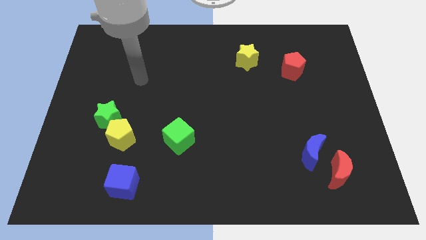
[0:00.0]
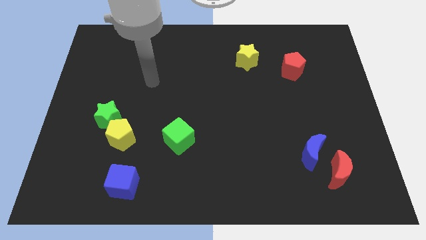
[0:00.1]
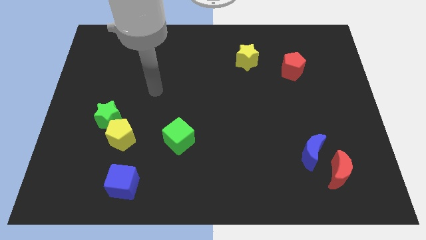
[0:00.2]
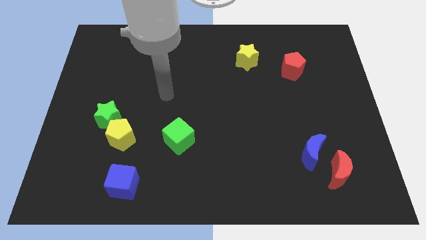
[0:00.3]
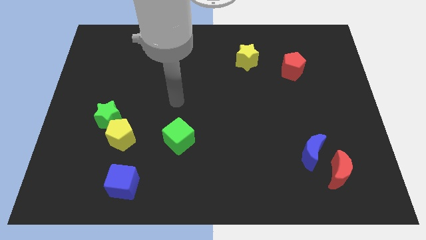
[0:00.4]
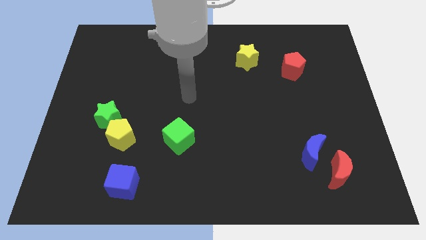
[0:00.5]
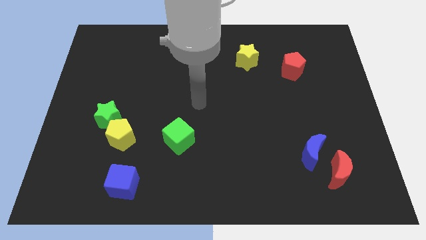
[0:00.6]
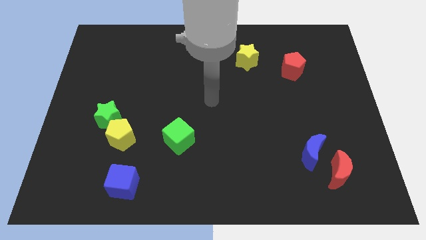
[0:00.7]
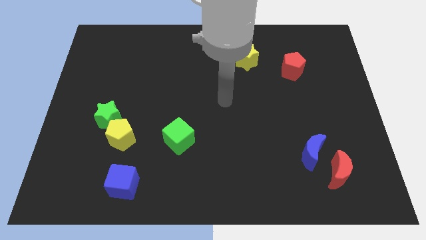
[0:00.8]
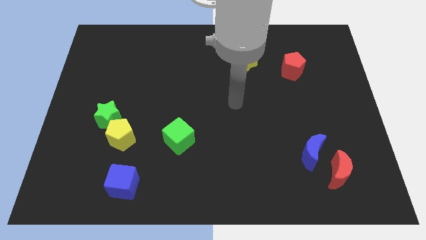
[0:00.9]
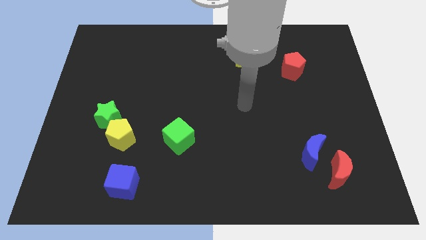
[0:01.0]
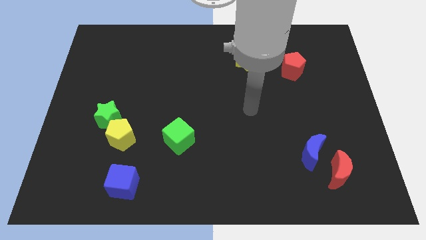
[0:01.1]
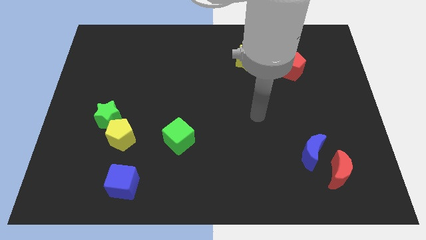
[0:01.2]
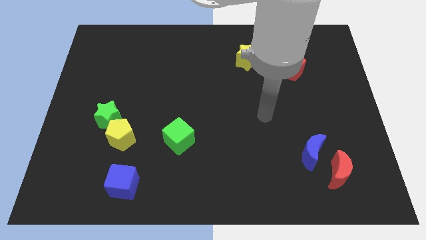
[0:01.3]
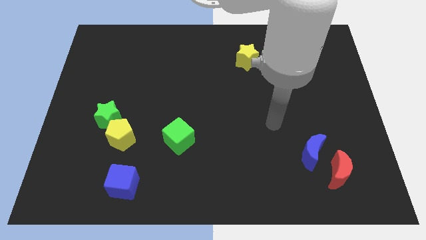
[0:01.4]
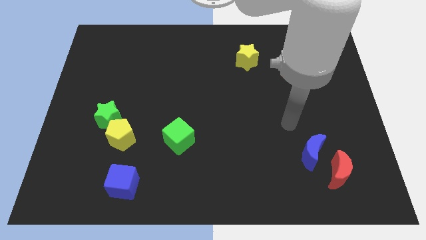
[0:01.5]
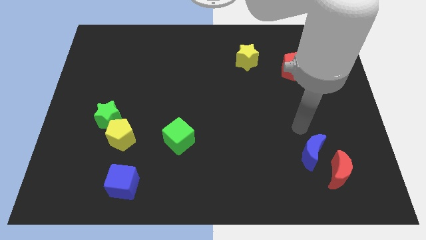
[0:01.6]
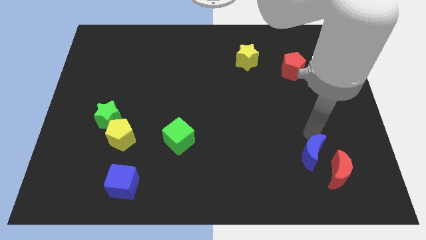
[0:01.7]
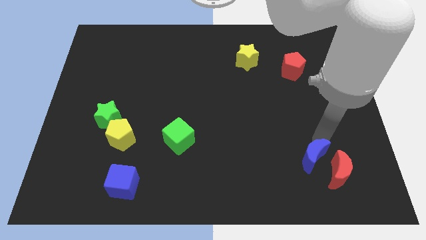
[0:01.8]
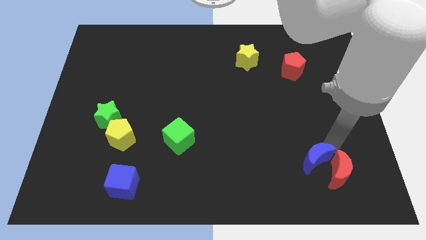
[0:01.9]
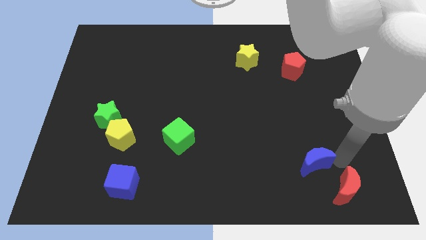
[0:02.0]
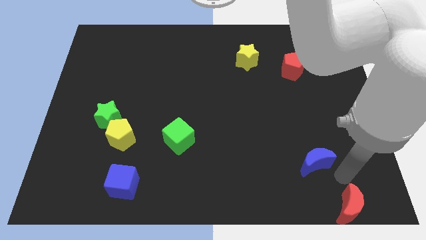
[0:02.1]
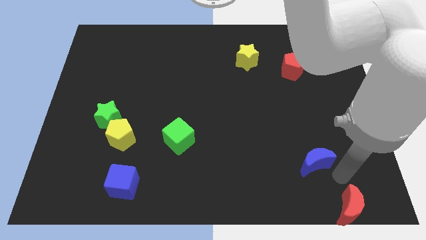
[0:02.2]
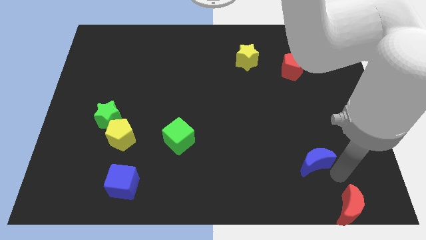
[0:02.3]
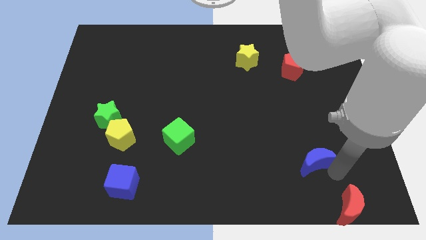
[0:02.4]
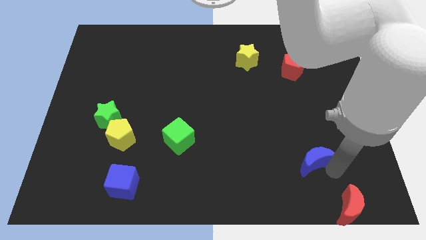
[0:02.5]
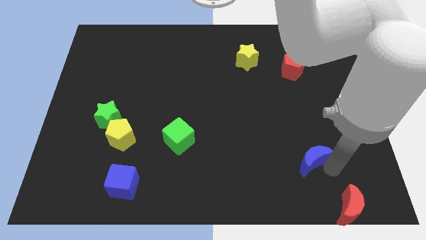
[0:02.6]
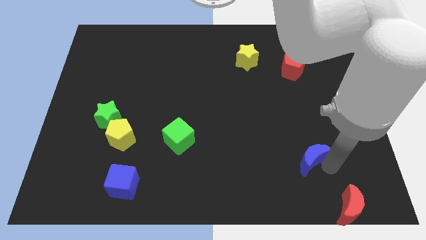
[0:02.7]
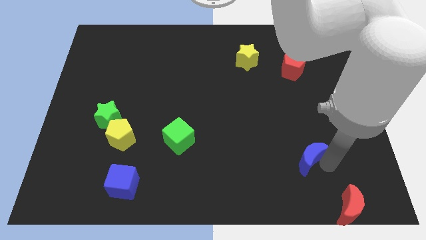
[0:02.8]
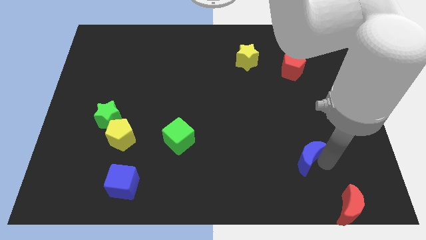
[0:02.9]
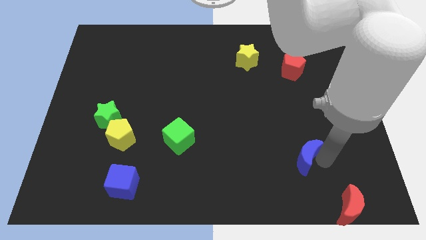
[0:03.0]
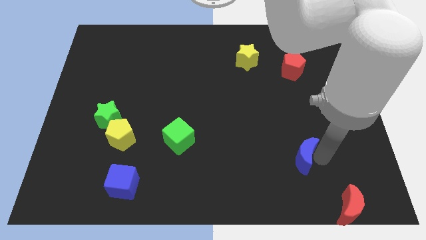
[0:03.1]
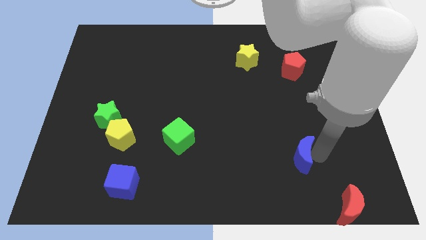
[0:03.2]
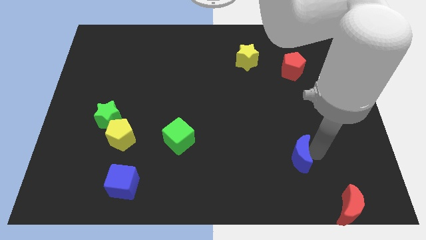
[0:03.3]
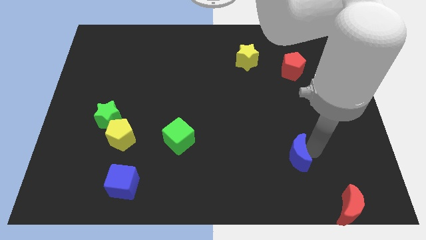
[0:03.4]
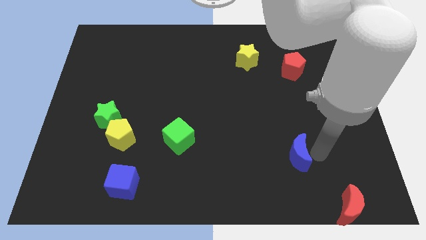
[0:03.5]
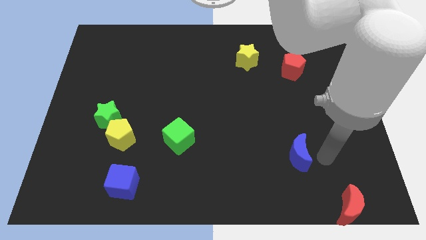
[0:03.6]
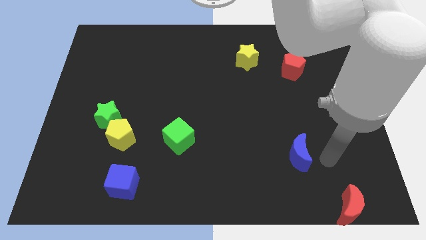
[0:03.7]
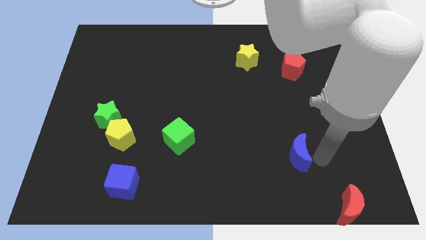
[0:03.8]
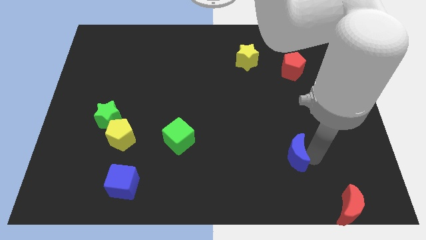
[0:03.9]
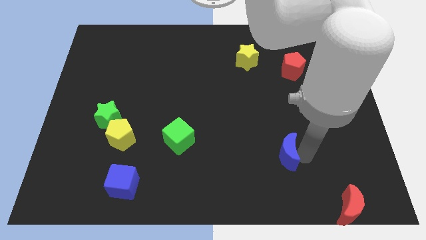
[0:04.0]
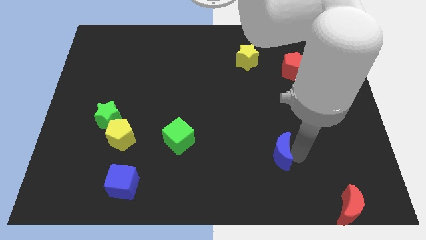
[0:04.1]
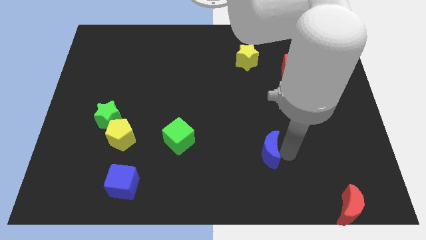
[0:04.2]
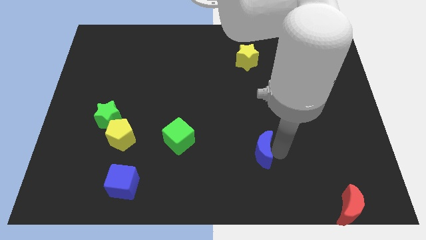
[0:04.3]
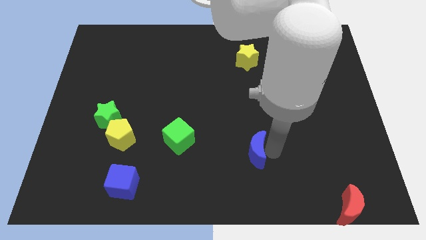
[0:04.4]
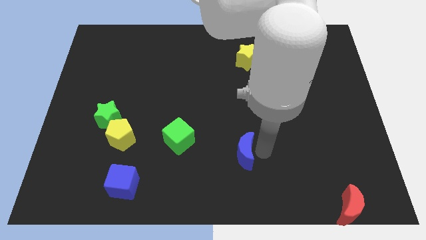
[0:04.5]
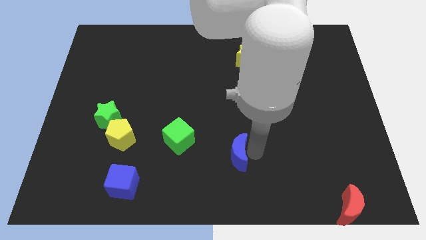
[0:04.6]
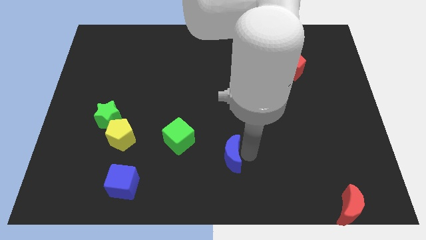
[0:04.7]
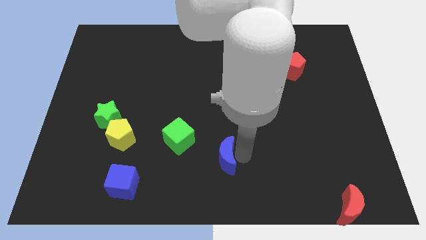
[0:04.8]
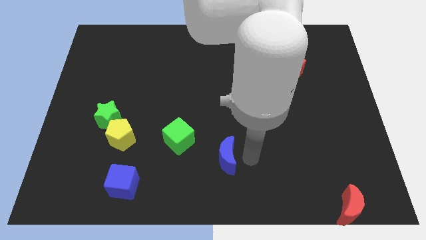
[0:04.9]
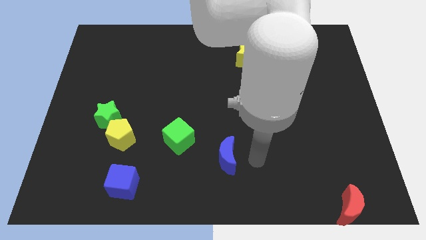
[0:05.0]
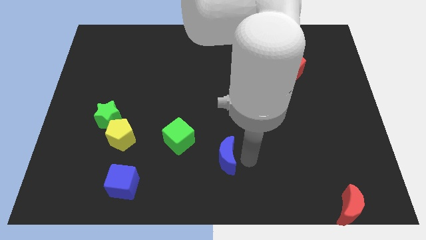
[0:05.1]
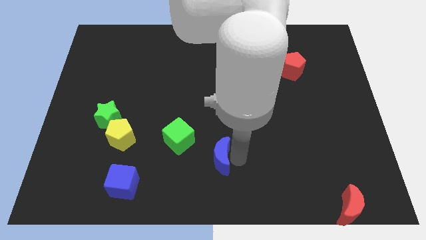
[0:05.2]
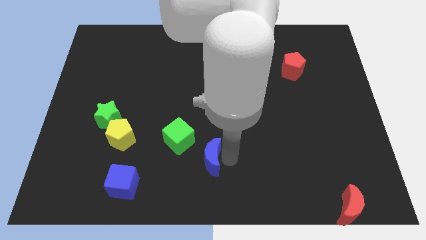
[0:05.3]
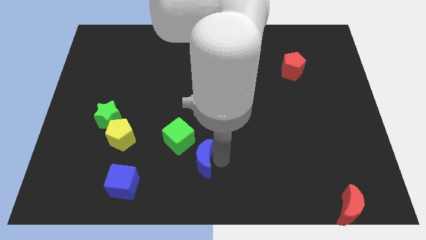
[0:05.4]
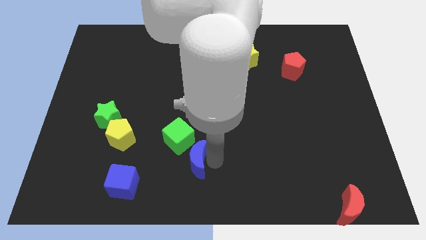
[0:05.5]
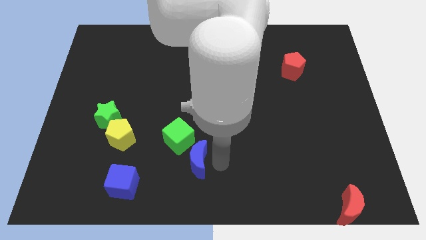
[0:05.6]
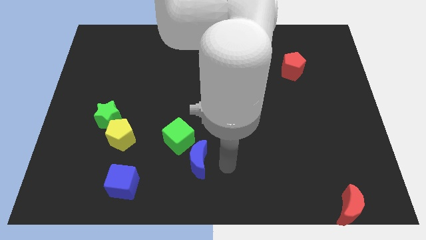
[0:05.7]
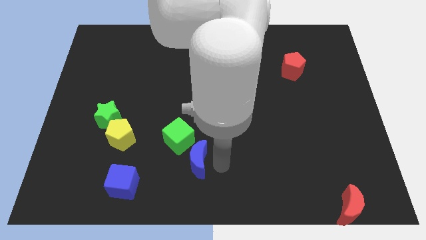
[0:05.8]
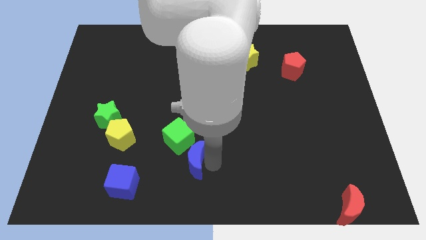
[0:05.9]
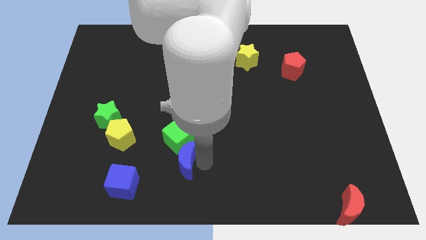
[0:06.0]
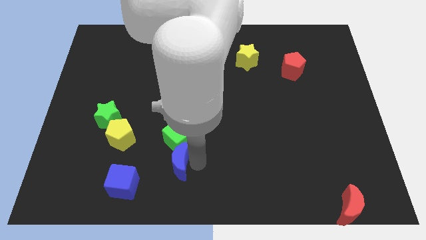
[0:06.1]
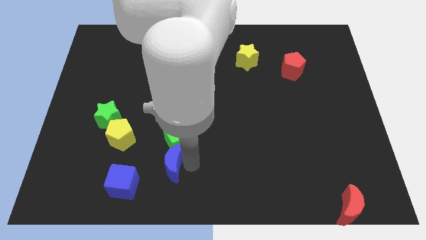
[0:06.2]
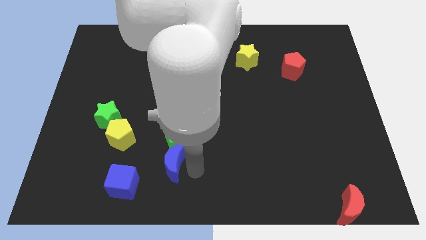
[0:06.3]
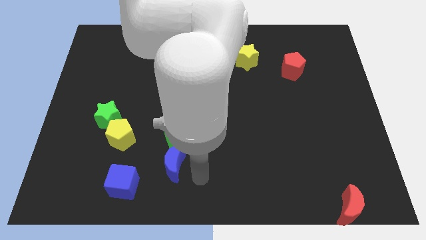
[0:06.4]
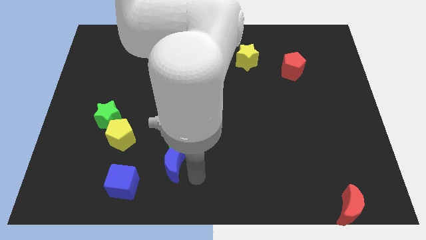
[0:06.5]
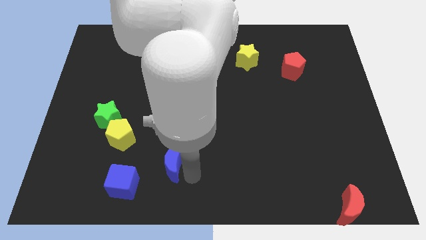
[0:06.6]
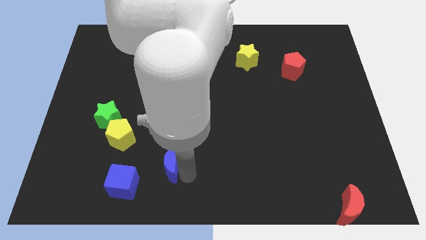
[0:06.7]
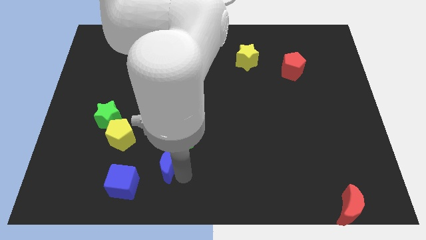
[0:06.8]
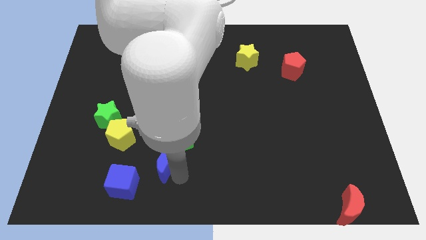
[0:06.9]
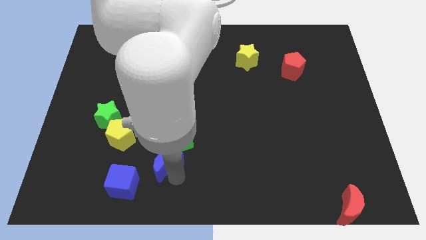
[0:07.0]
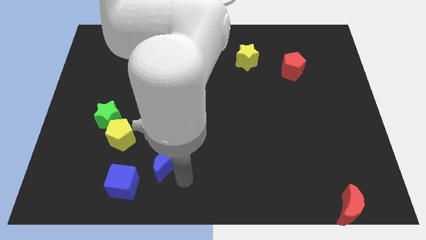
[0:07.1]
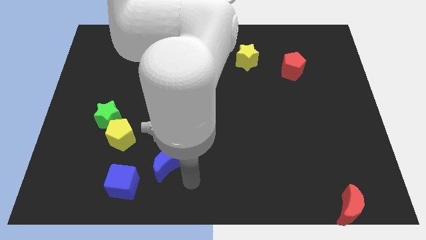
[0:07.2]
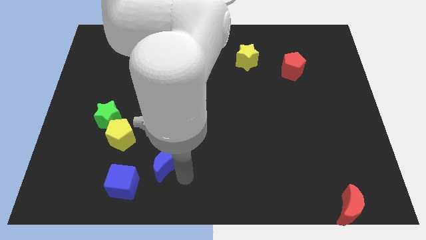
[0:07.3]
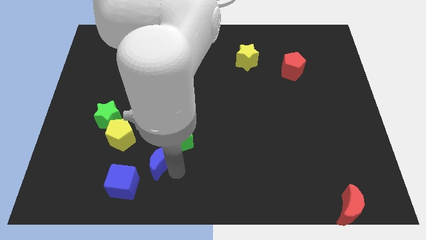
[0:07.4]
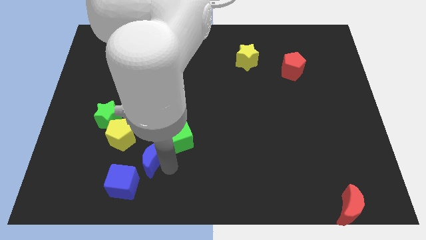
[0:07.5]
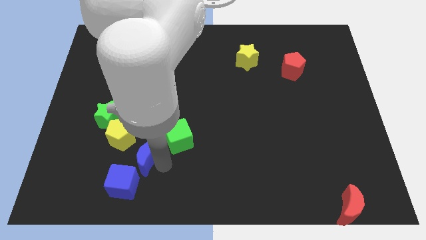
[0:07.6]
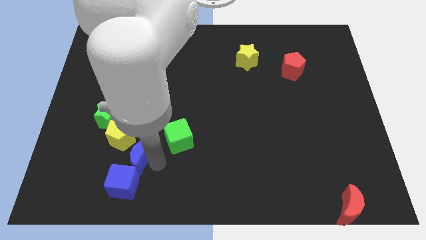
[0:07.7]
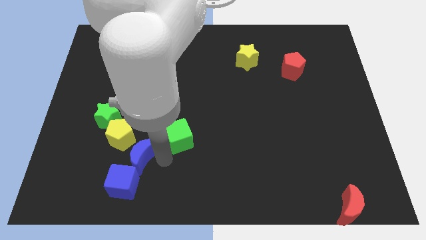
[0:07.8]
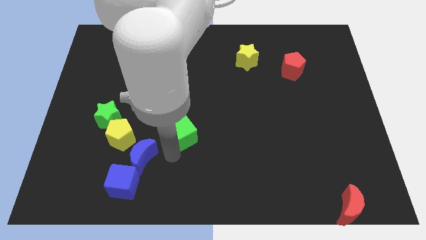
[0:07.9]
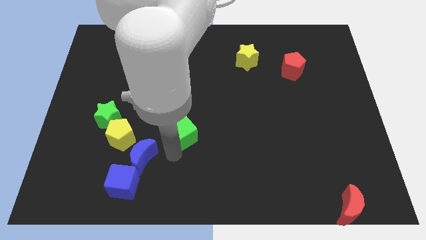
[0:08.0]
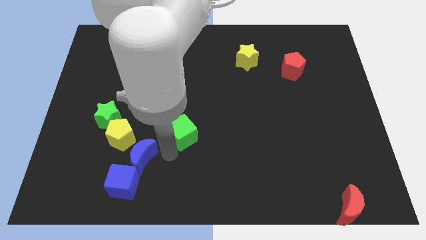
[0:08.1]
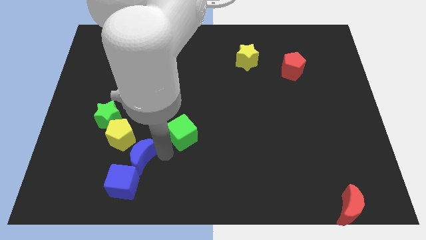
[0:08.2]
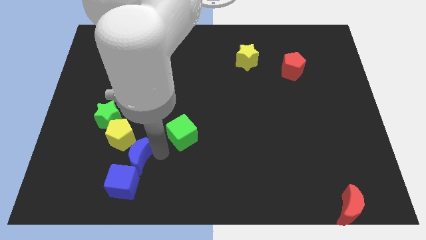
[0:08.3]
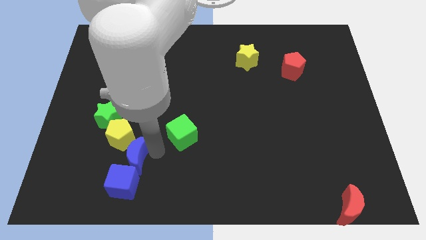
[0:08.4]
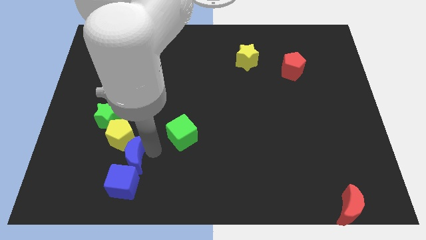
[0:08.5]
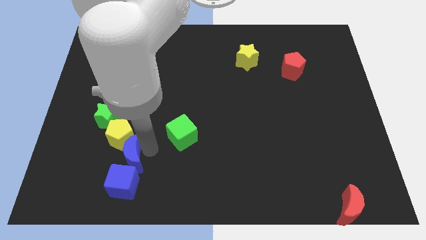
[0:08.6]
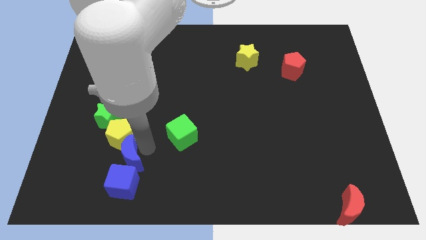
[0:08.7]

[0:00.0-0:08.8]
move the blue moon diagonally up and to the left of the blue cube
